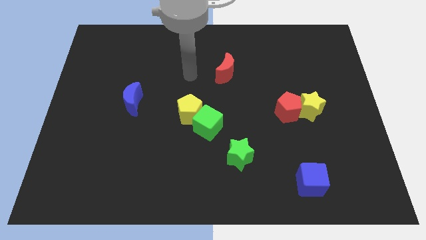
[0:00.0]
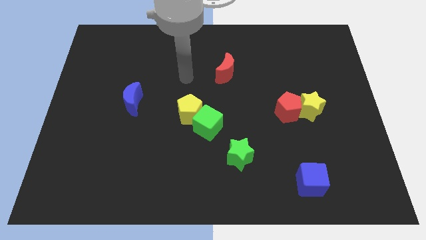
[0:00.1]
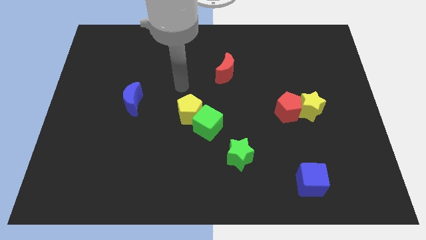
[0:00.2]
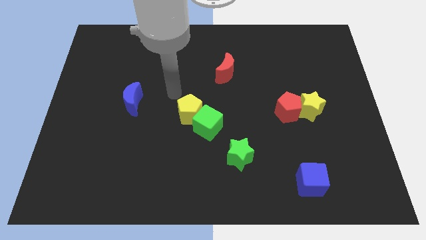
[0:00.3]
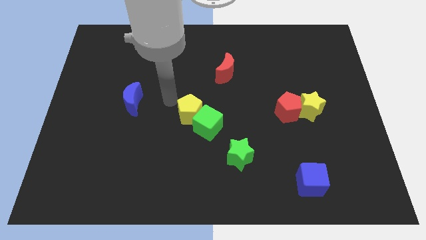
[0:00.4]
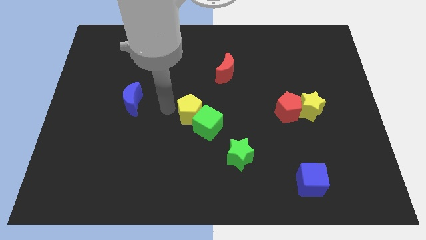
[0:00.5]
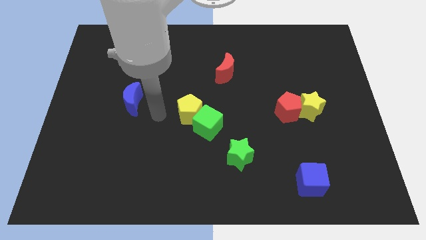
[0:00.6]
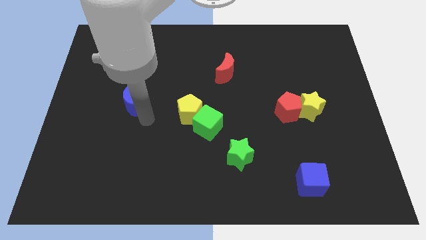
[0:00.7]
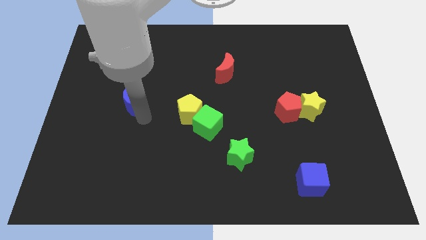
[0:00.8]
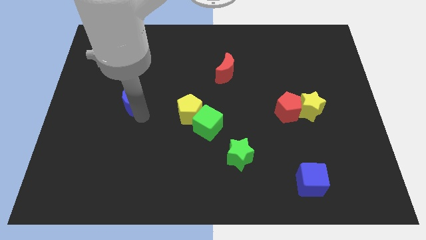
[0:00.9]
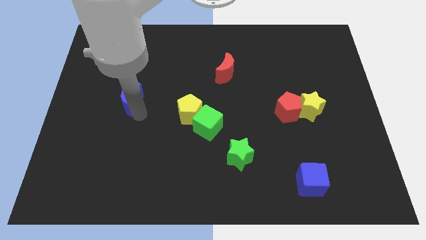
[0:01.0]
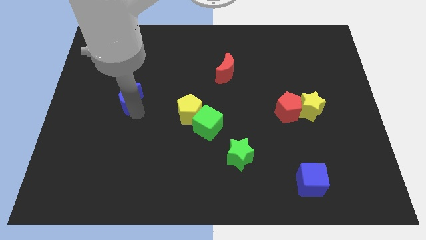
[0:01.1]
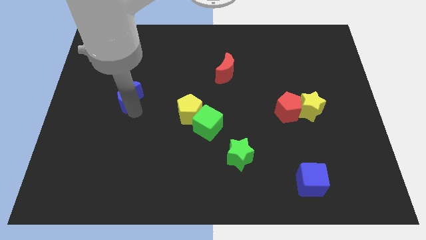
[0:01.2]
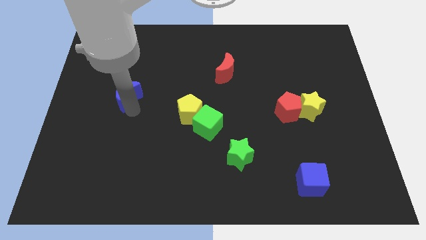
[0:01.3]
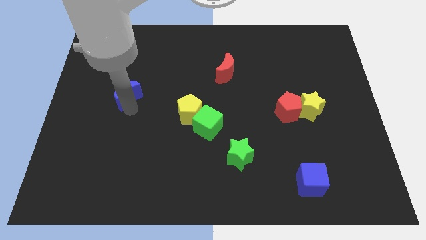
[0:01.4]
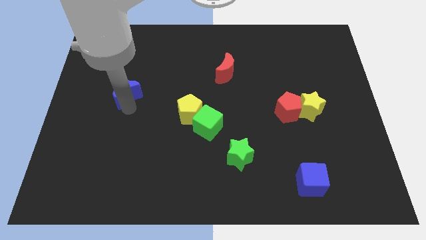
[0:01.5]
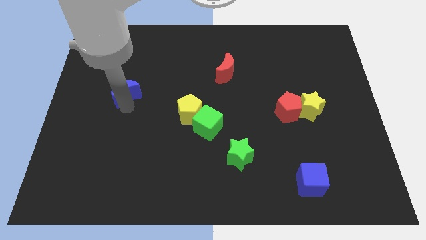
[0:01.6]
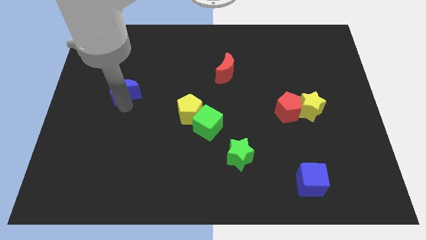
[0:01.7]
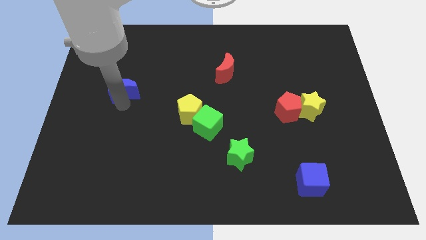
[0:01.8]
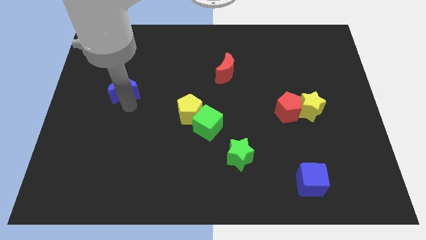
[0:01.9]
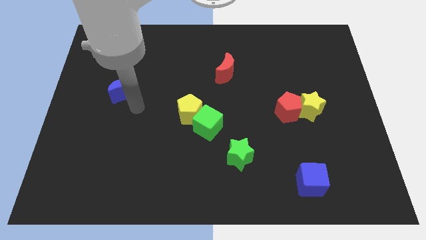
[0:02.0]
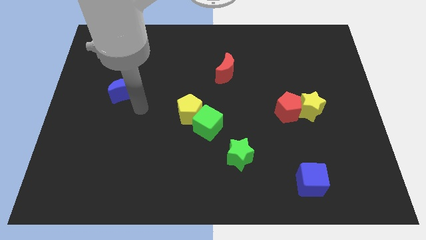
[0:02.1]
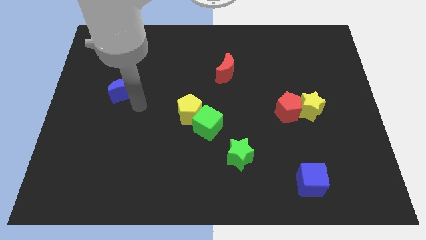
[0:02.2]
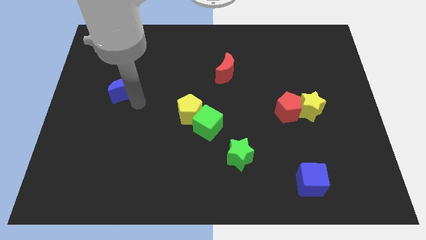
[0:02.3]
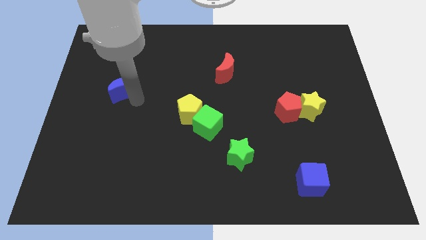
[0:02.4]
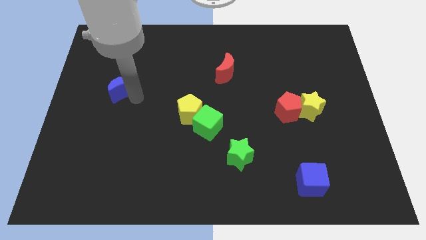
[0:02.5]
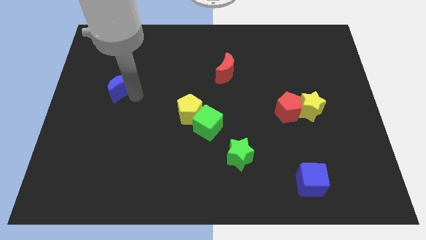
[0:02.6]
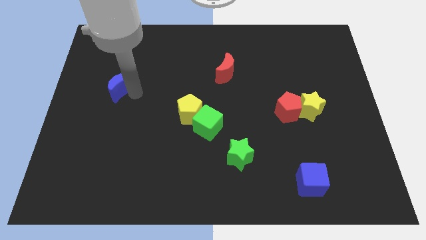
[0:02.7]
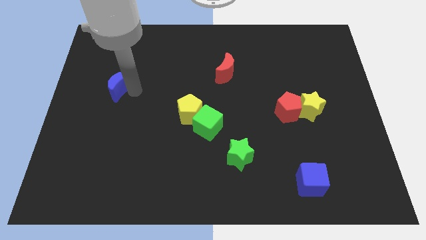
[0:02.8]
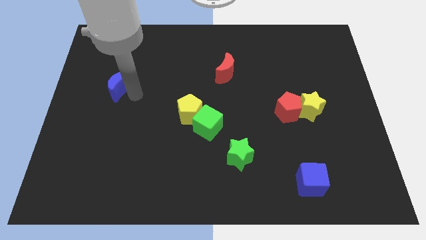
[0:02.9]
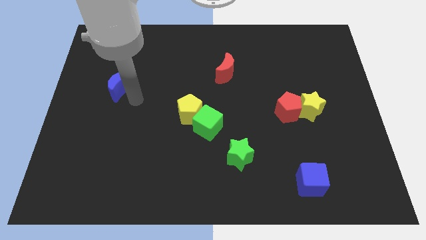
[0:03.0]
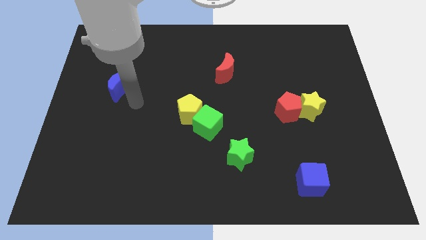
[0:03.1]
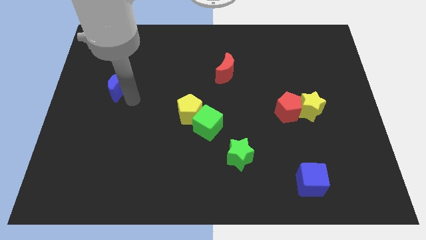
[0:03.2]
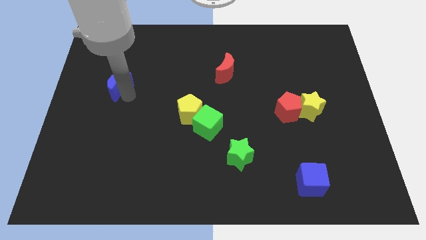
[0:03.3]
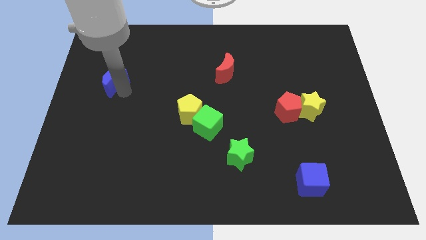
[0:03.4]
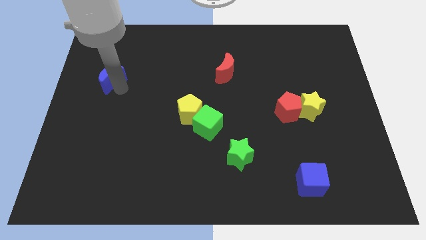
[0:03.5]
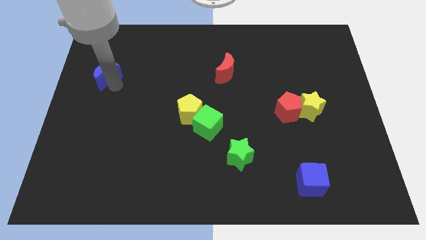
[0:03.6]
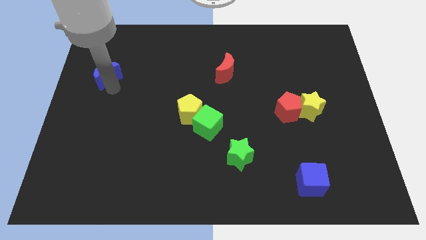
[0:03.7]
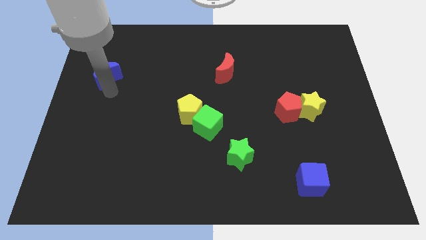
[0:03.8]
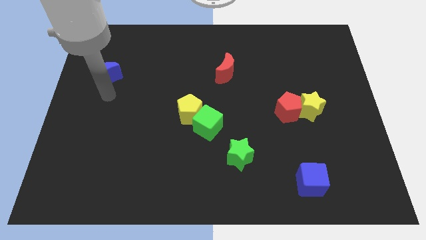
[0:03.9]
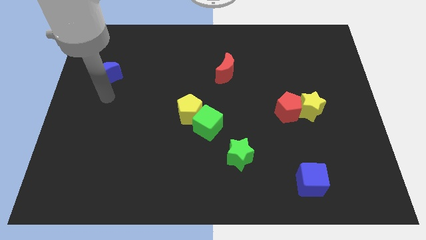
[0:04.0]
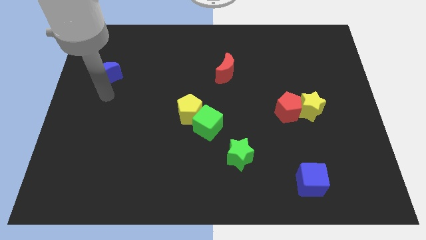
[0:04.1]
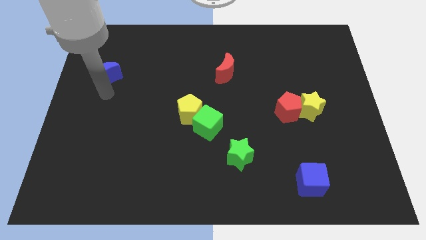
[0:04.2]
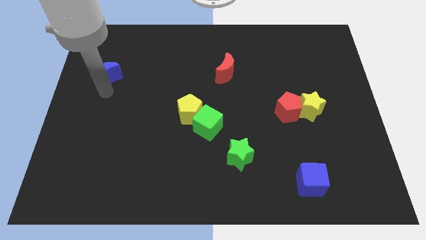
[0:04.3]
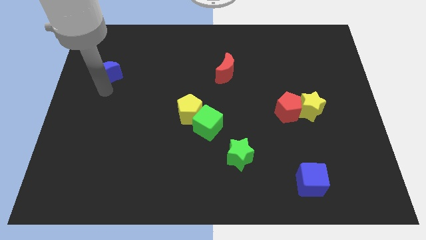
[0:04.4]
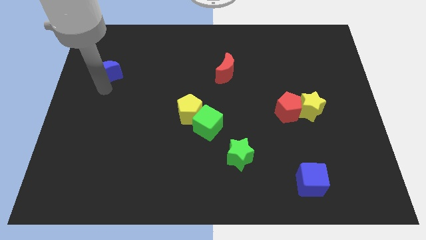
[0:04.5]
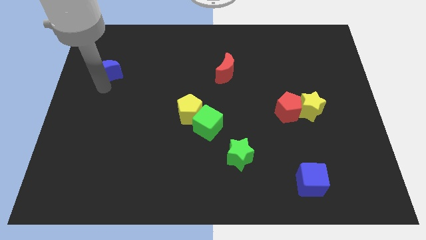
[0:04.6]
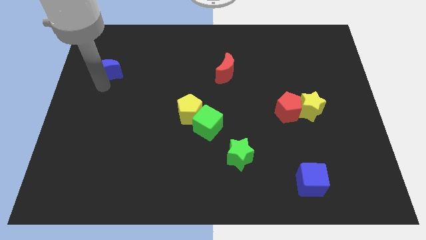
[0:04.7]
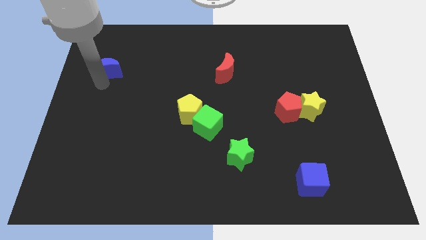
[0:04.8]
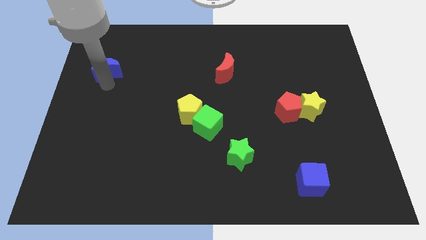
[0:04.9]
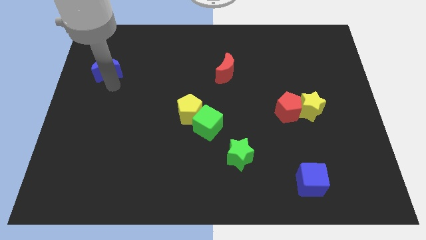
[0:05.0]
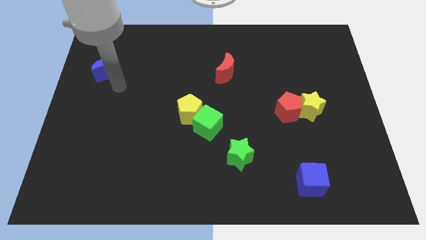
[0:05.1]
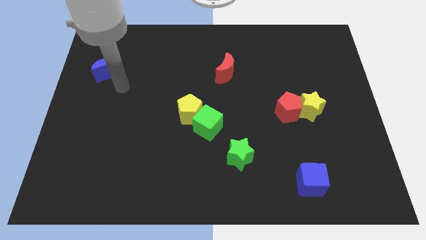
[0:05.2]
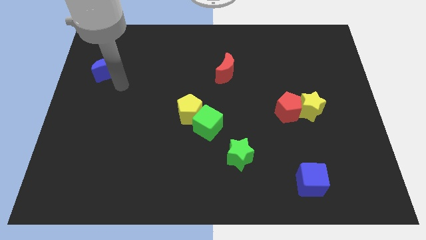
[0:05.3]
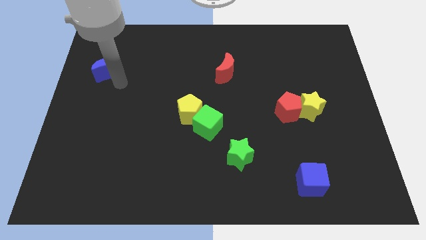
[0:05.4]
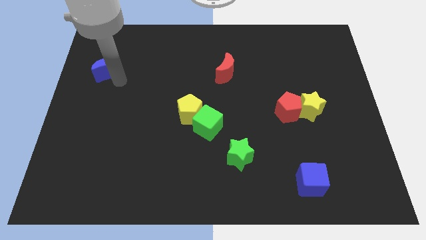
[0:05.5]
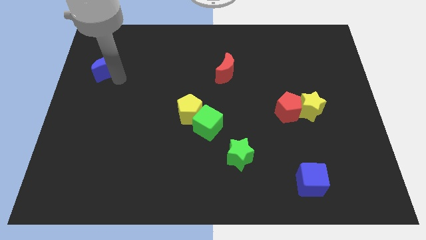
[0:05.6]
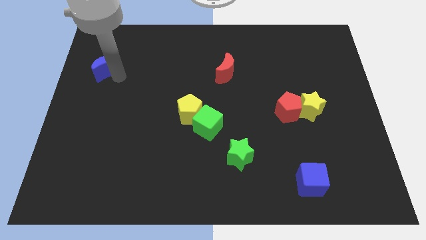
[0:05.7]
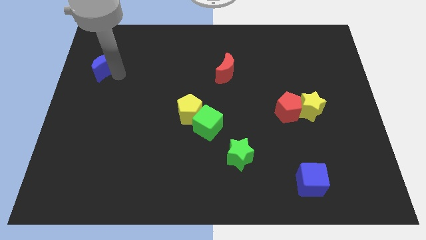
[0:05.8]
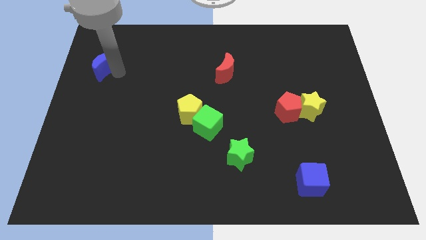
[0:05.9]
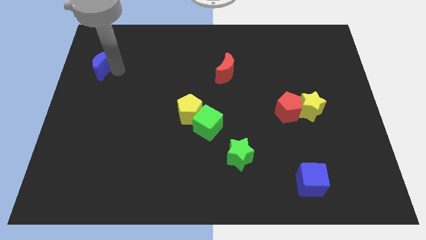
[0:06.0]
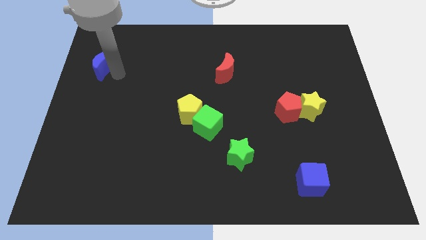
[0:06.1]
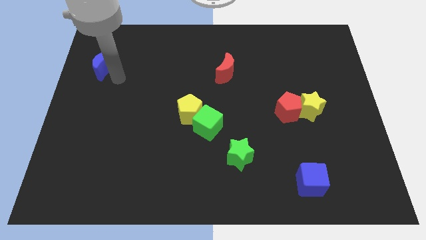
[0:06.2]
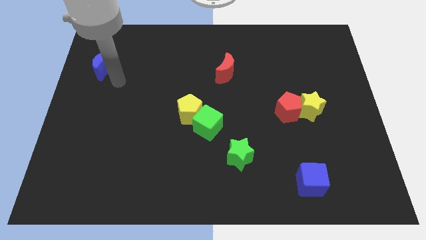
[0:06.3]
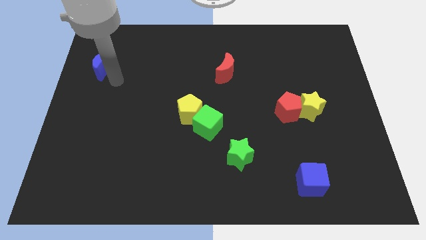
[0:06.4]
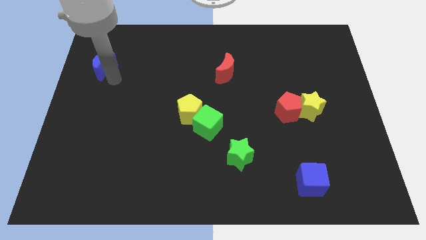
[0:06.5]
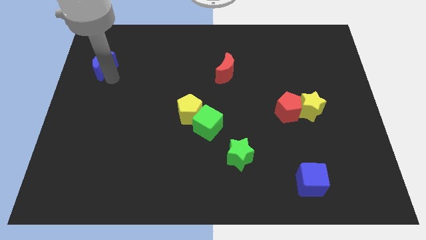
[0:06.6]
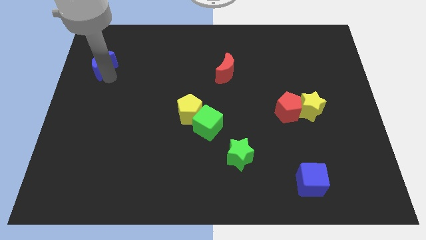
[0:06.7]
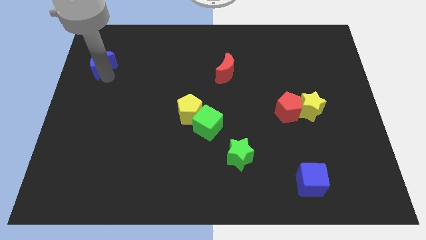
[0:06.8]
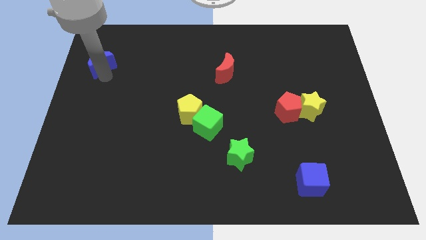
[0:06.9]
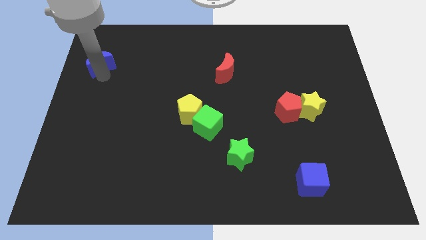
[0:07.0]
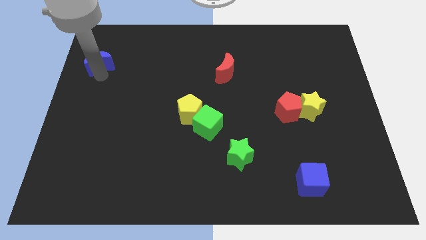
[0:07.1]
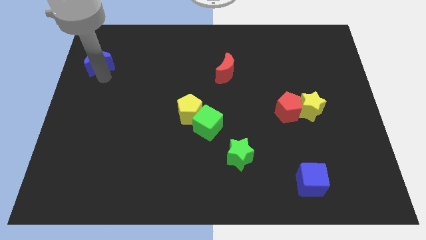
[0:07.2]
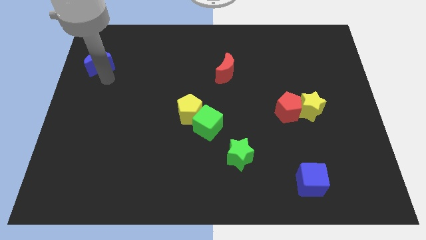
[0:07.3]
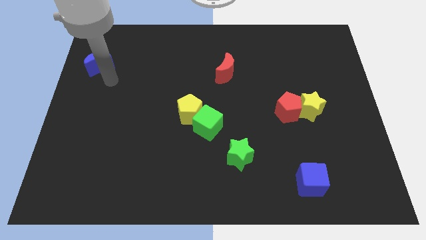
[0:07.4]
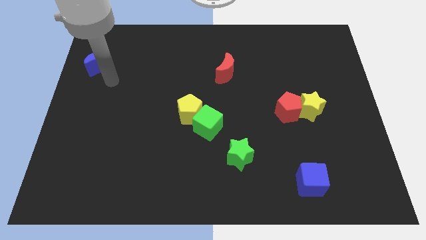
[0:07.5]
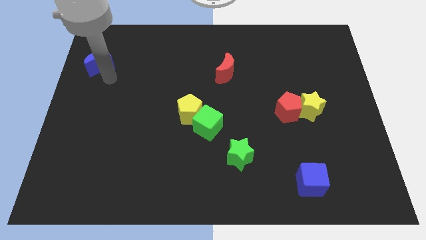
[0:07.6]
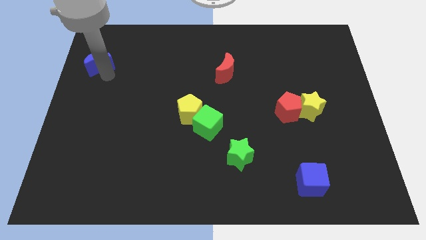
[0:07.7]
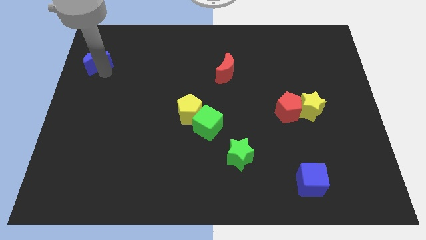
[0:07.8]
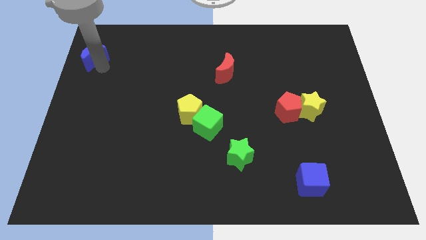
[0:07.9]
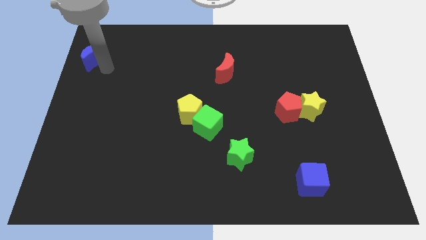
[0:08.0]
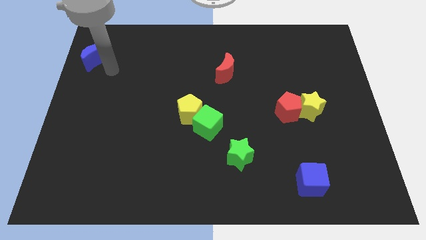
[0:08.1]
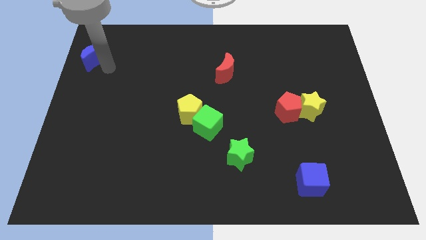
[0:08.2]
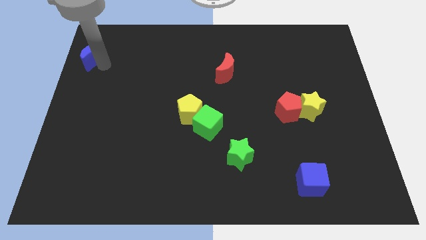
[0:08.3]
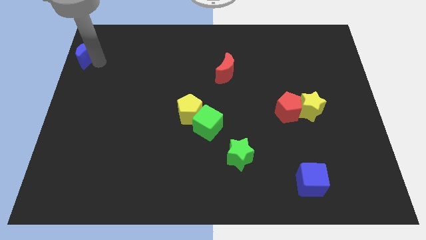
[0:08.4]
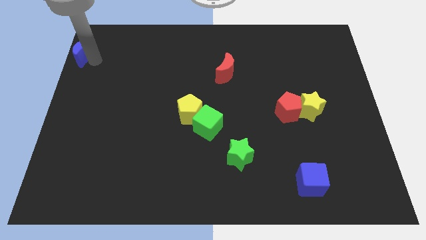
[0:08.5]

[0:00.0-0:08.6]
slide the blue moon to the top left
